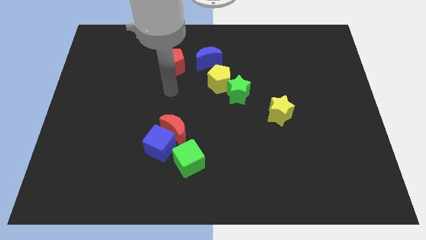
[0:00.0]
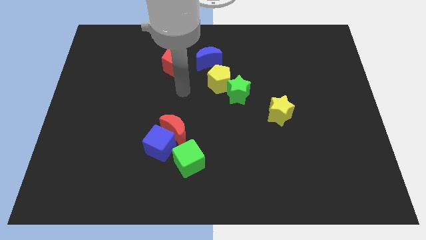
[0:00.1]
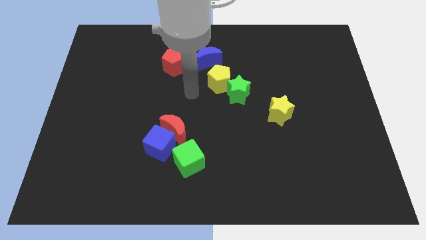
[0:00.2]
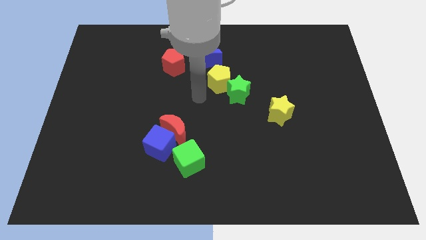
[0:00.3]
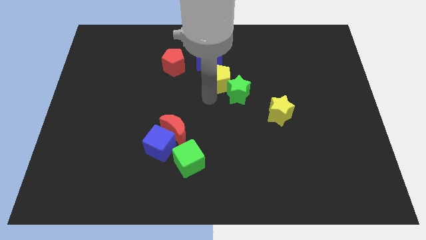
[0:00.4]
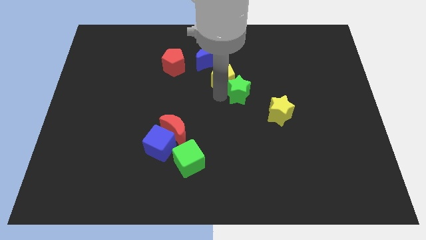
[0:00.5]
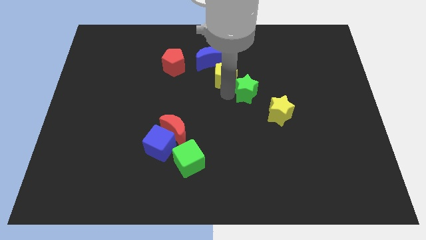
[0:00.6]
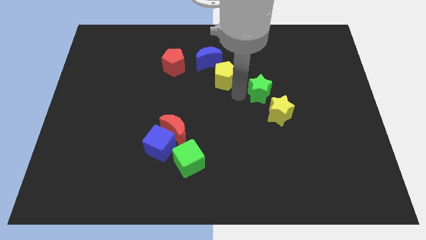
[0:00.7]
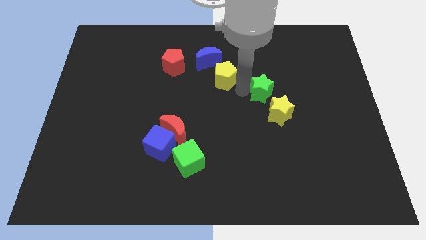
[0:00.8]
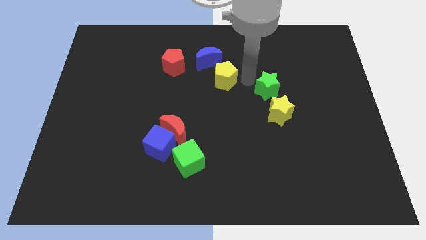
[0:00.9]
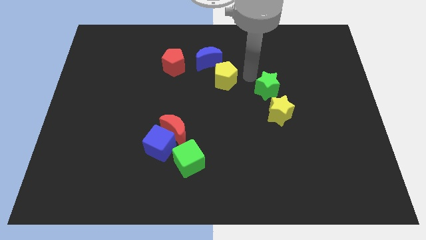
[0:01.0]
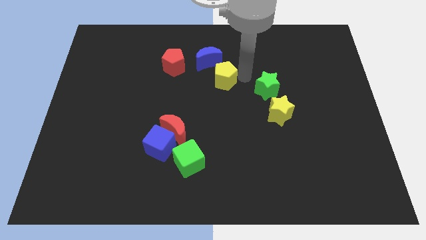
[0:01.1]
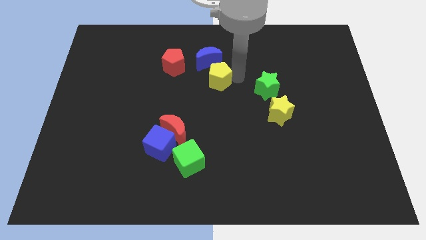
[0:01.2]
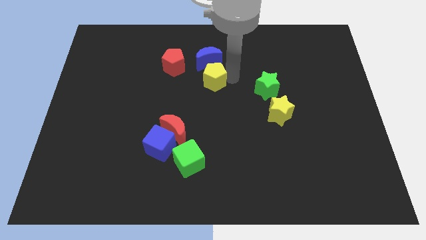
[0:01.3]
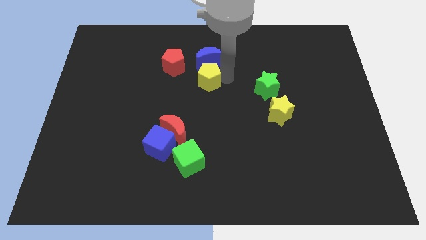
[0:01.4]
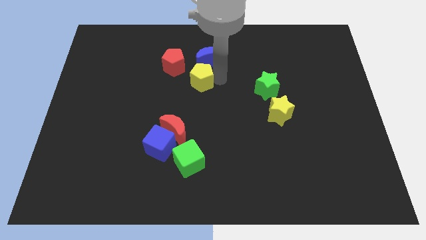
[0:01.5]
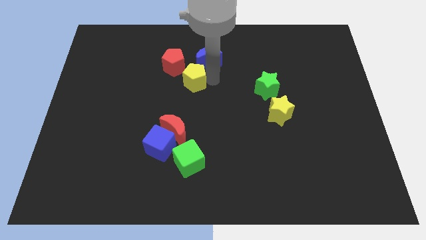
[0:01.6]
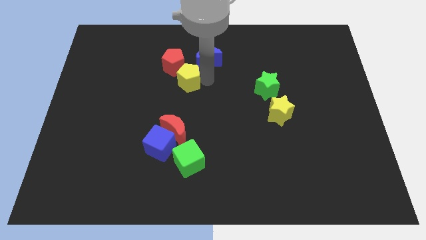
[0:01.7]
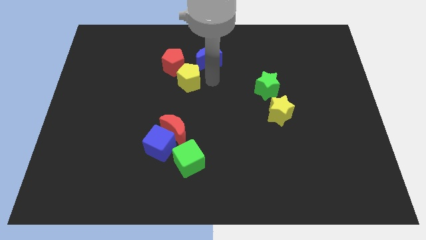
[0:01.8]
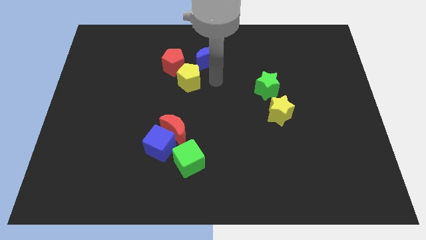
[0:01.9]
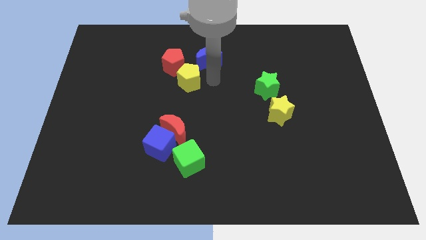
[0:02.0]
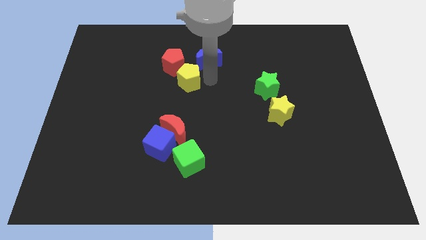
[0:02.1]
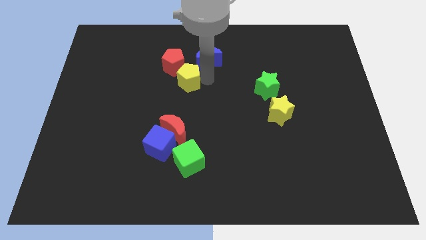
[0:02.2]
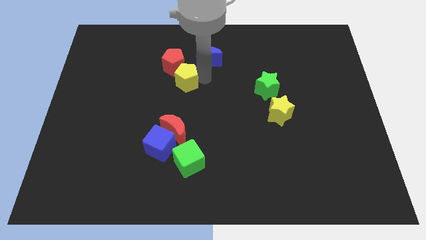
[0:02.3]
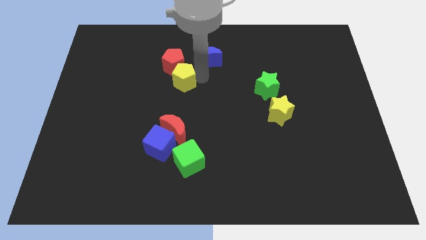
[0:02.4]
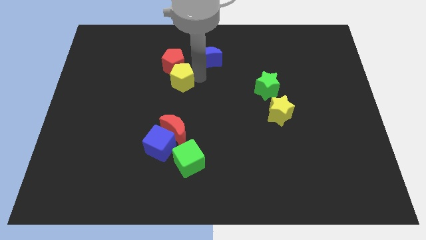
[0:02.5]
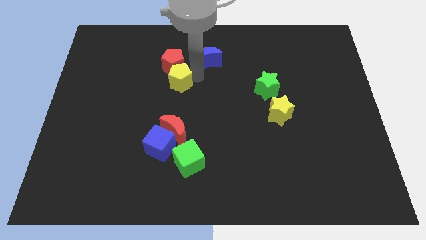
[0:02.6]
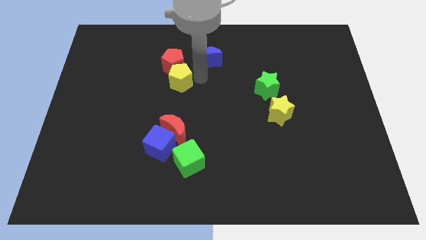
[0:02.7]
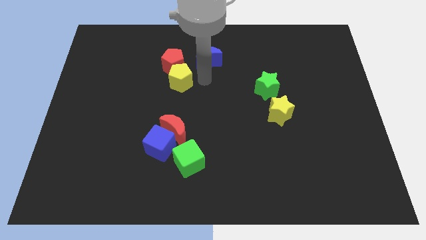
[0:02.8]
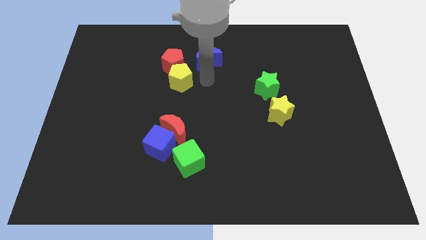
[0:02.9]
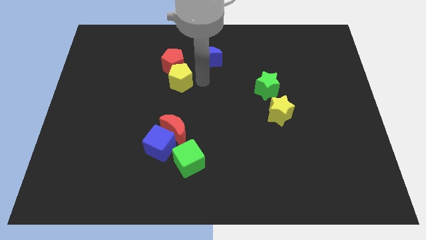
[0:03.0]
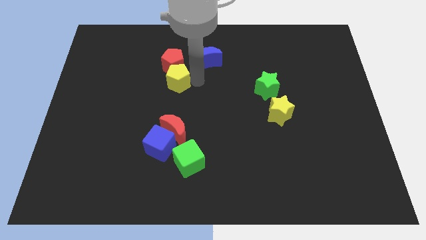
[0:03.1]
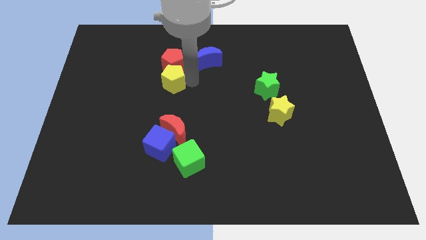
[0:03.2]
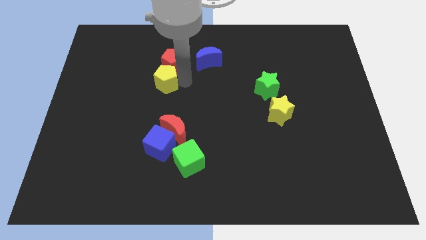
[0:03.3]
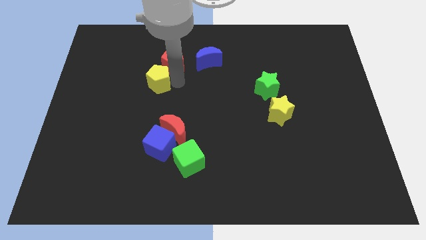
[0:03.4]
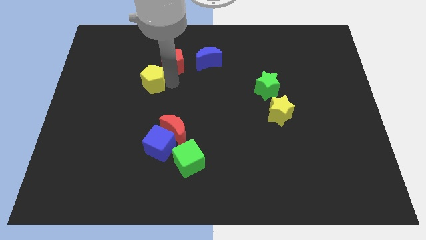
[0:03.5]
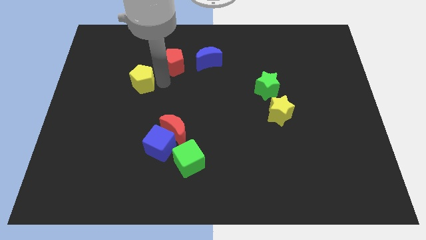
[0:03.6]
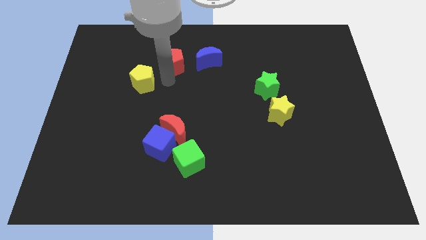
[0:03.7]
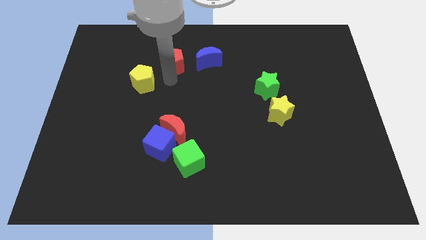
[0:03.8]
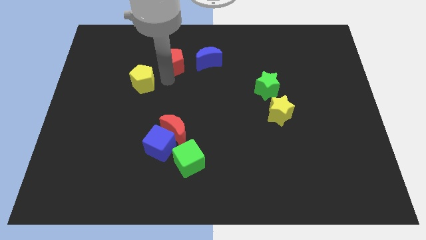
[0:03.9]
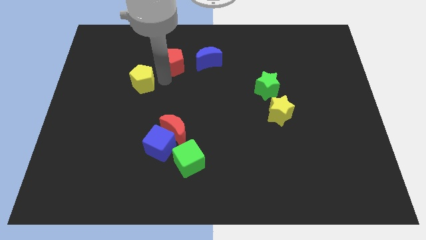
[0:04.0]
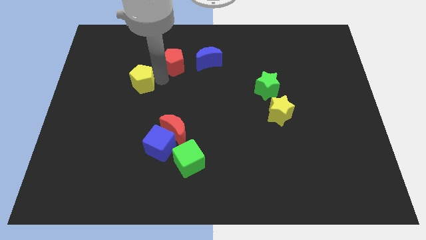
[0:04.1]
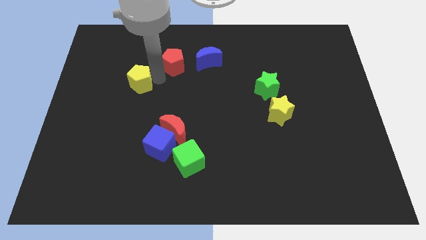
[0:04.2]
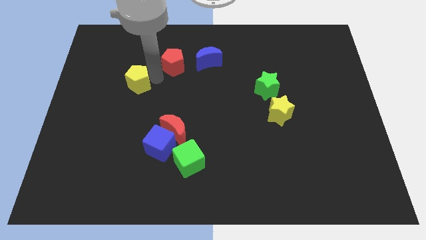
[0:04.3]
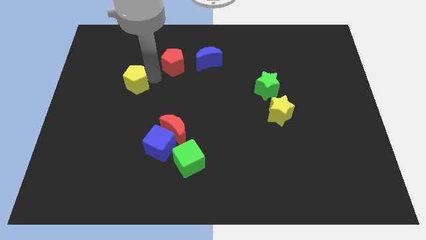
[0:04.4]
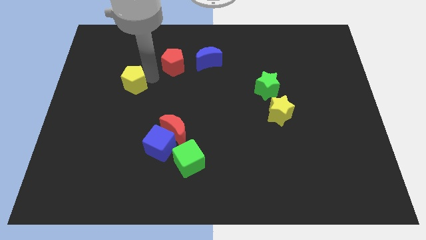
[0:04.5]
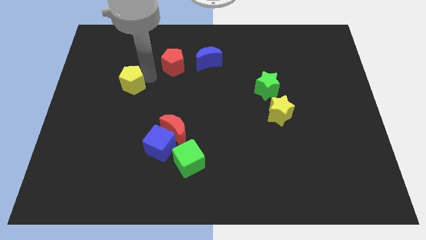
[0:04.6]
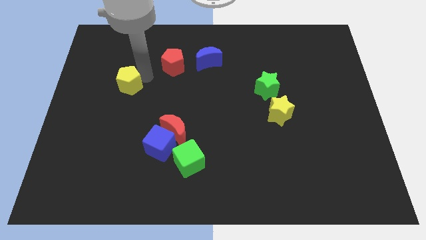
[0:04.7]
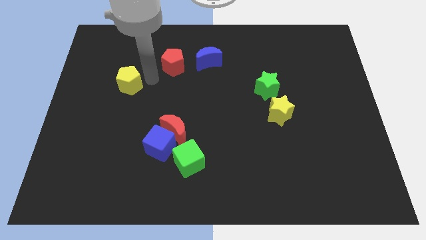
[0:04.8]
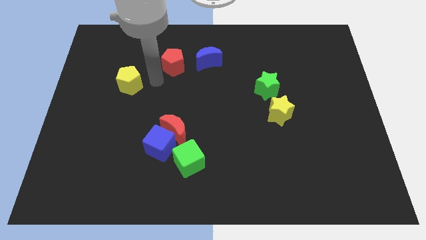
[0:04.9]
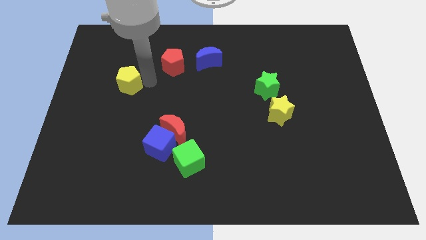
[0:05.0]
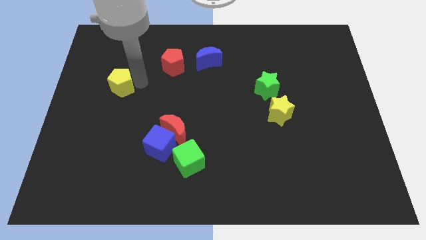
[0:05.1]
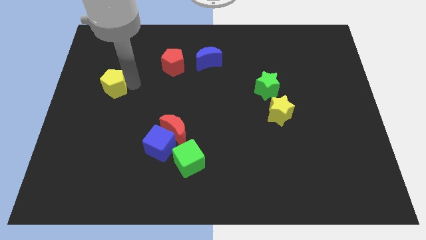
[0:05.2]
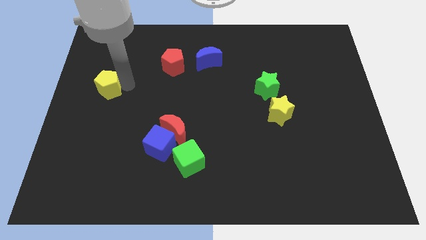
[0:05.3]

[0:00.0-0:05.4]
move the yellow pentagon to the left side of the board
